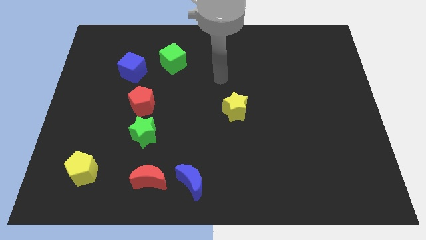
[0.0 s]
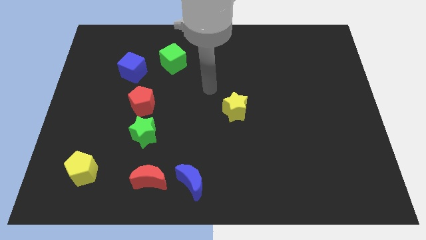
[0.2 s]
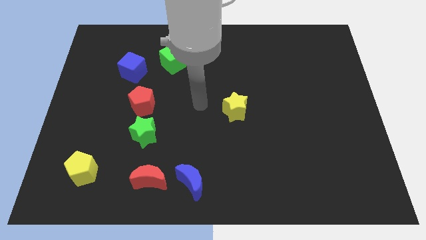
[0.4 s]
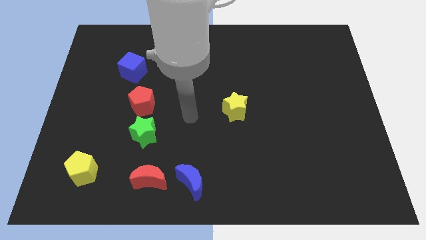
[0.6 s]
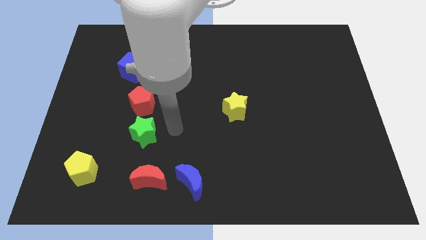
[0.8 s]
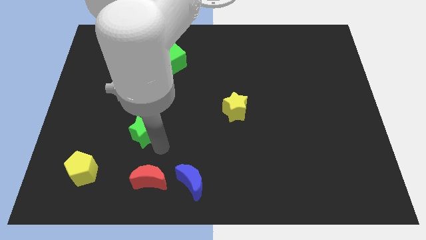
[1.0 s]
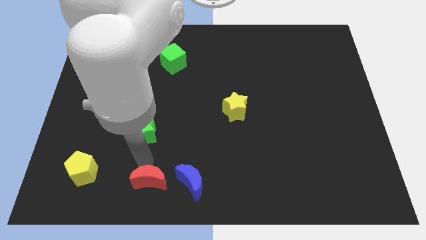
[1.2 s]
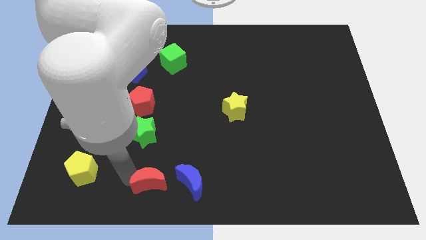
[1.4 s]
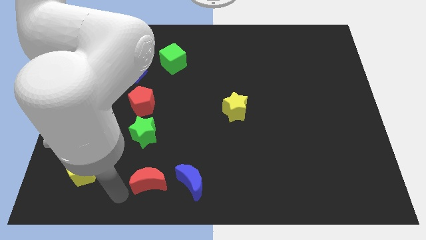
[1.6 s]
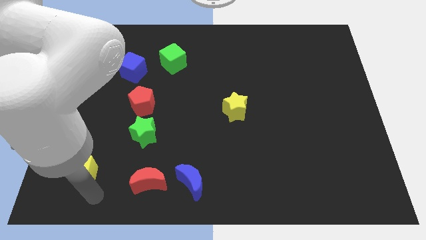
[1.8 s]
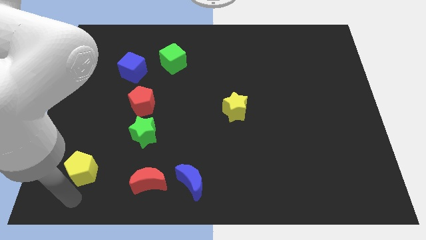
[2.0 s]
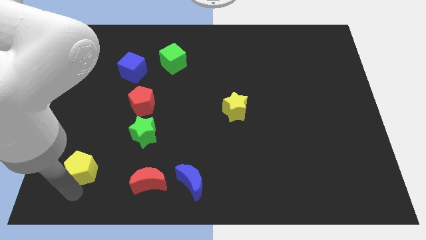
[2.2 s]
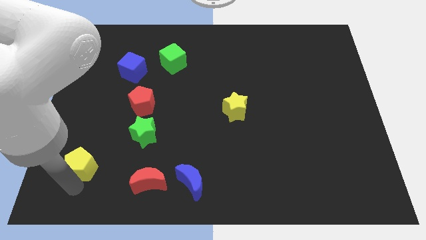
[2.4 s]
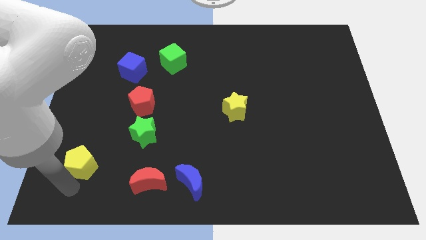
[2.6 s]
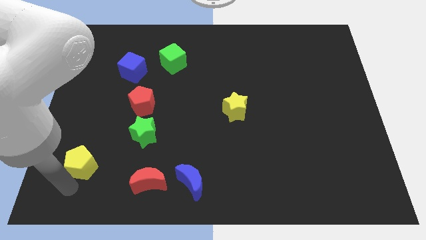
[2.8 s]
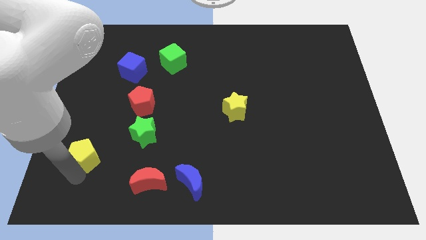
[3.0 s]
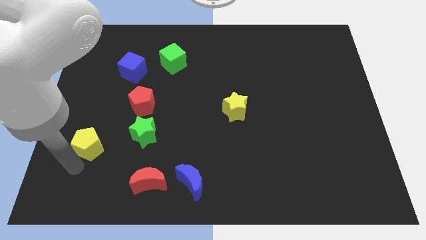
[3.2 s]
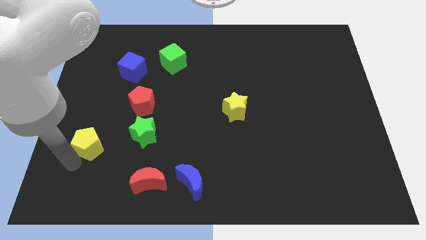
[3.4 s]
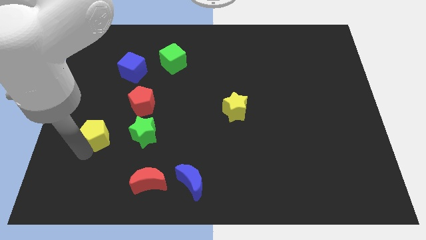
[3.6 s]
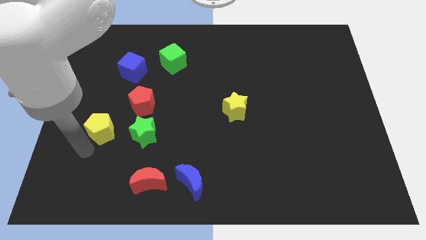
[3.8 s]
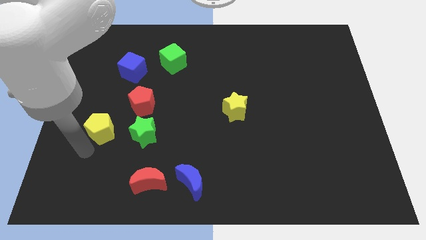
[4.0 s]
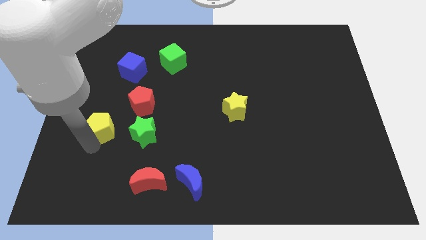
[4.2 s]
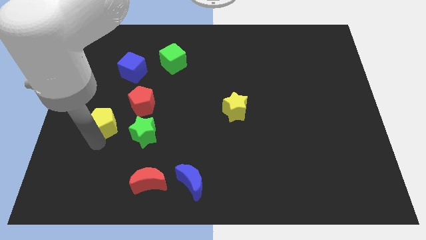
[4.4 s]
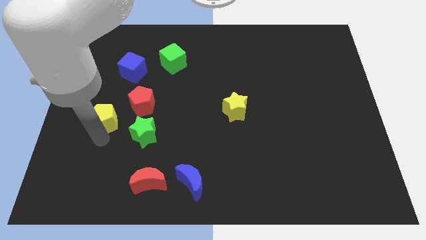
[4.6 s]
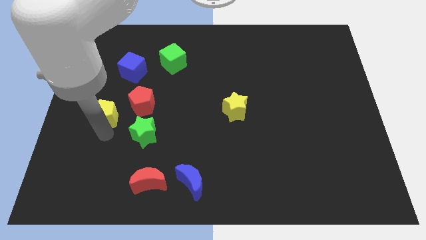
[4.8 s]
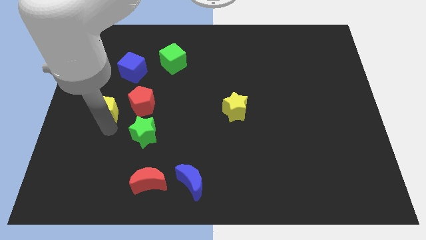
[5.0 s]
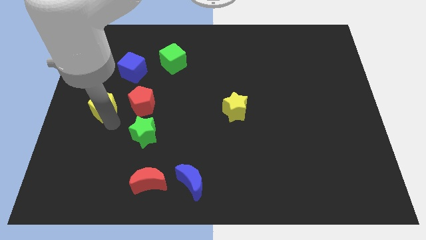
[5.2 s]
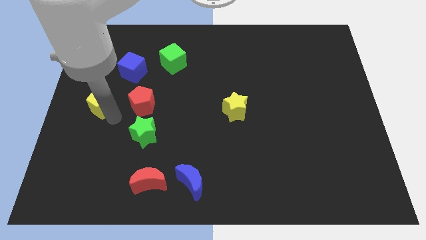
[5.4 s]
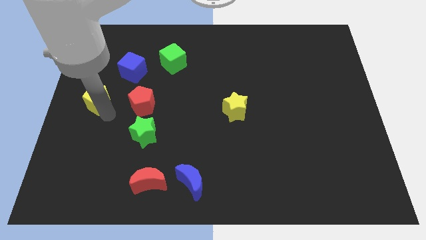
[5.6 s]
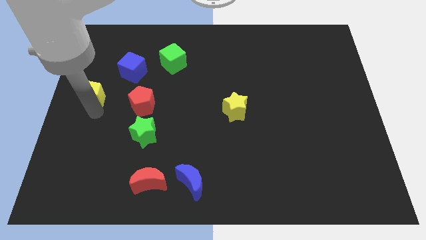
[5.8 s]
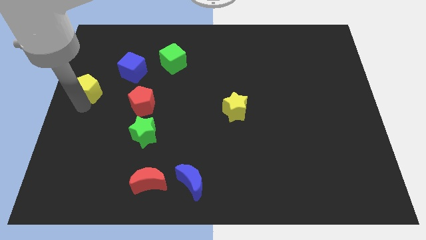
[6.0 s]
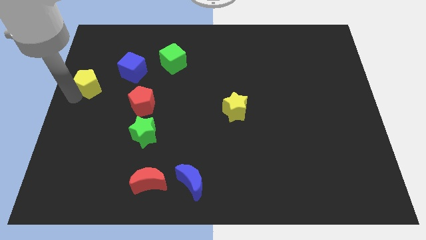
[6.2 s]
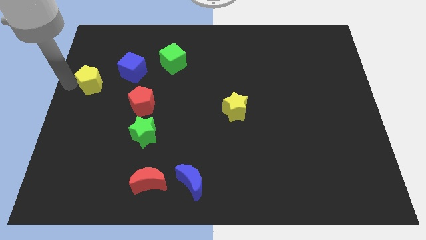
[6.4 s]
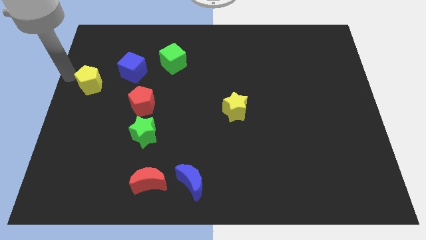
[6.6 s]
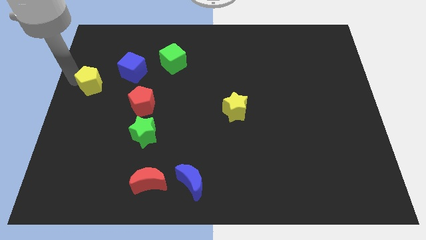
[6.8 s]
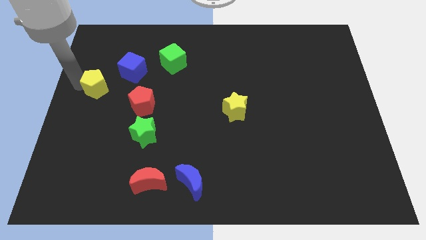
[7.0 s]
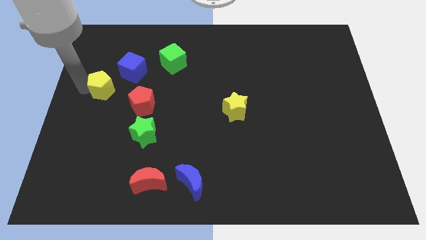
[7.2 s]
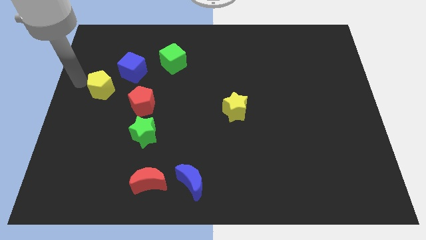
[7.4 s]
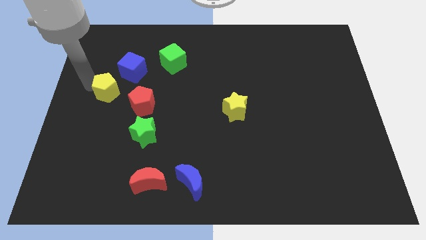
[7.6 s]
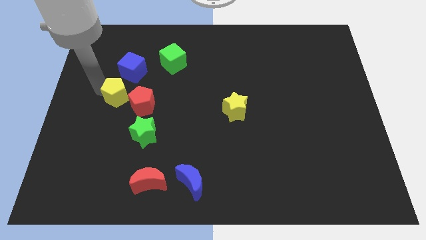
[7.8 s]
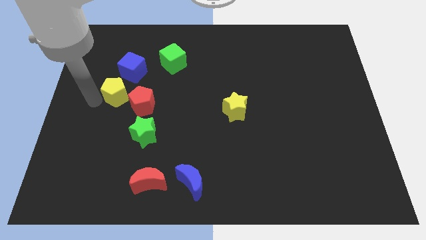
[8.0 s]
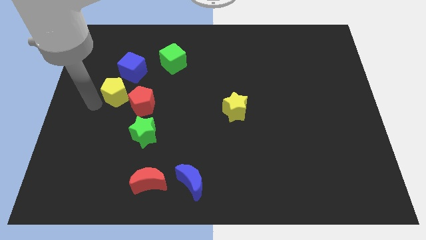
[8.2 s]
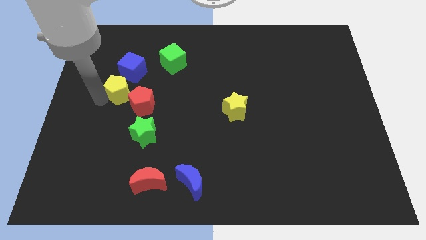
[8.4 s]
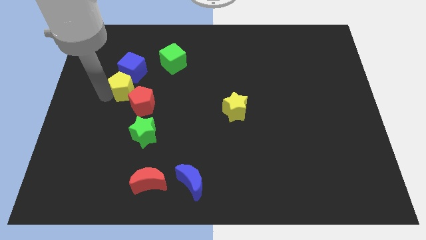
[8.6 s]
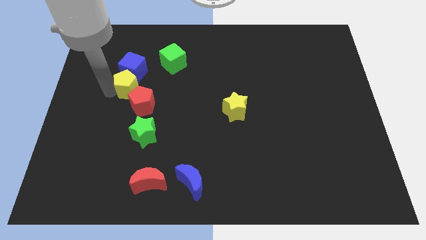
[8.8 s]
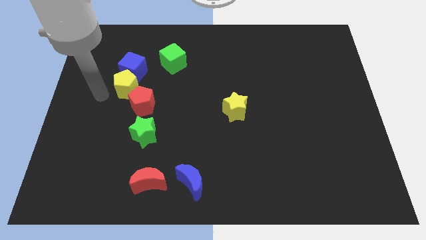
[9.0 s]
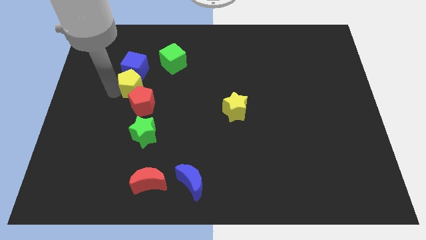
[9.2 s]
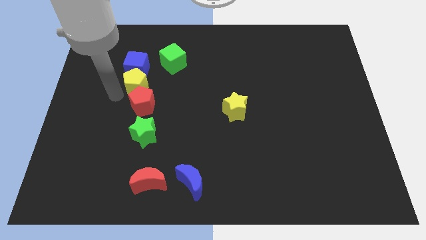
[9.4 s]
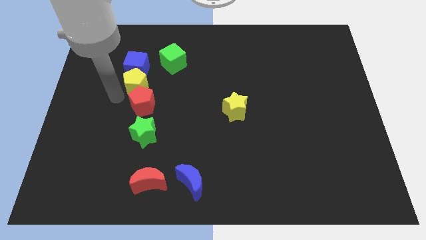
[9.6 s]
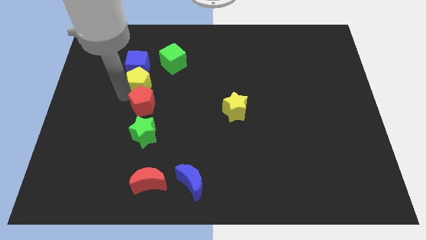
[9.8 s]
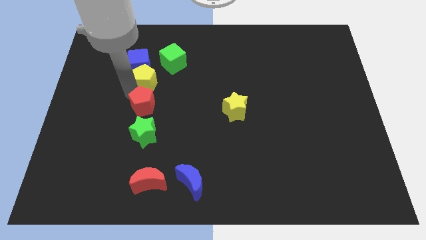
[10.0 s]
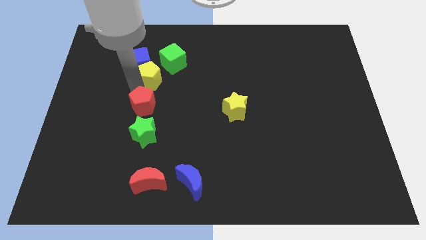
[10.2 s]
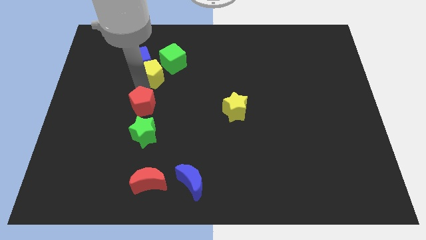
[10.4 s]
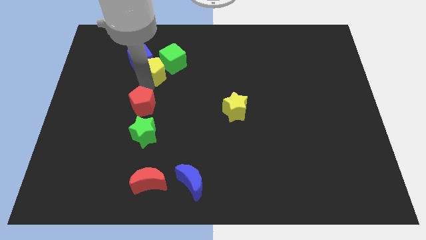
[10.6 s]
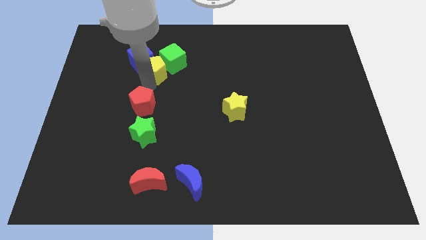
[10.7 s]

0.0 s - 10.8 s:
push the yellow pentagon next to the green cube

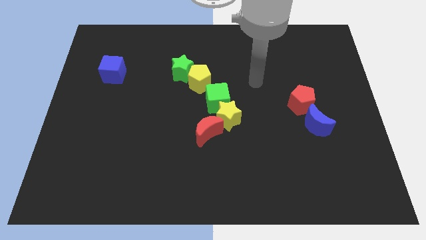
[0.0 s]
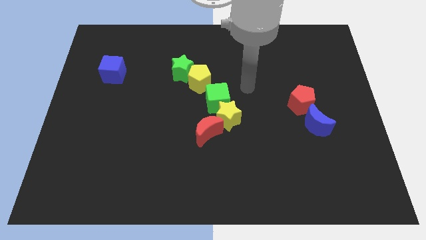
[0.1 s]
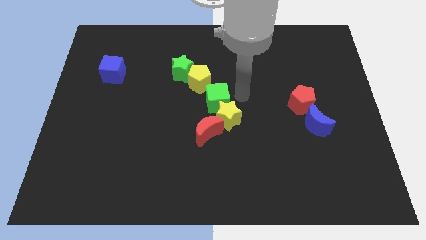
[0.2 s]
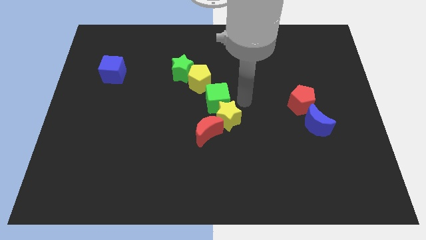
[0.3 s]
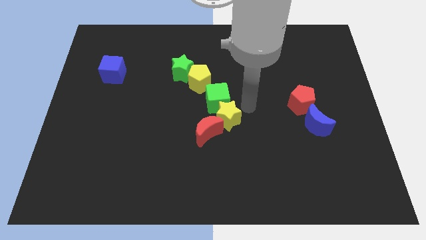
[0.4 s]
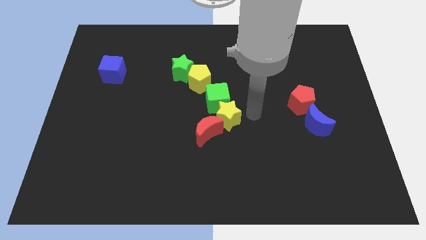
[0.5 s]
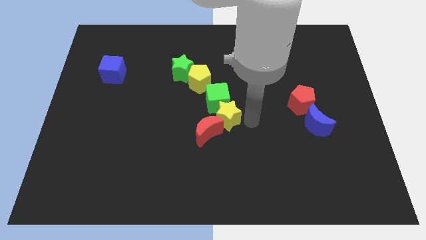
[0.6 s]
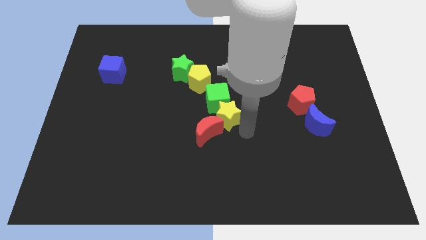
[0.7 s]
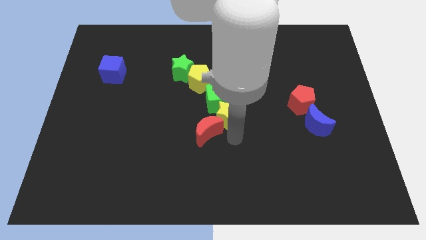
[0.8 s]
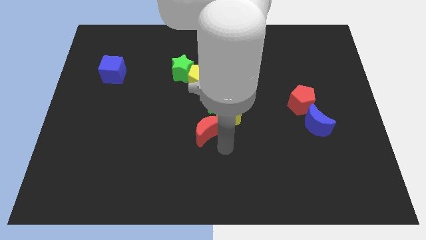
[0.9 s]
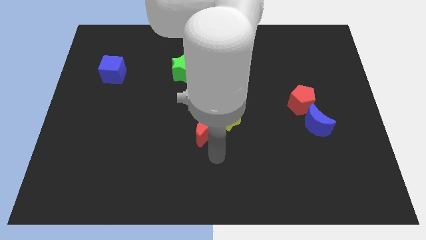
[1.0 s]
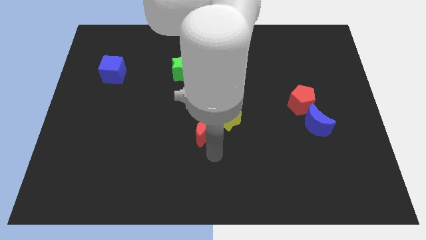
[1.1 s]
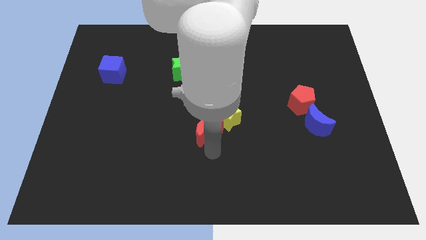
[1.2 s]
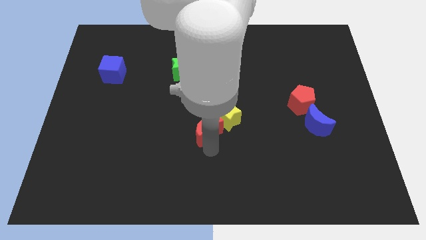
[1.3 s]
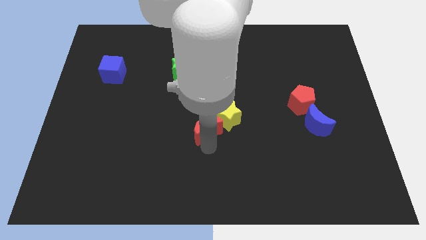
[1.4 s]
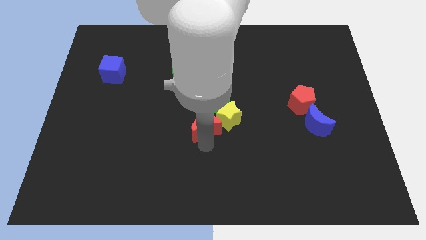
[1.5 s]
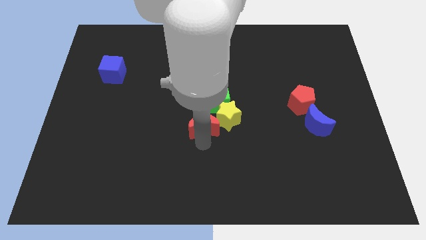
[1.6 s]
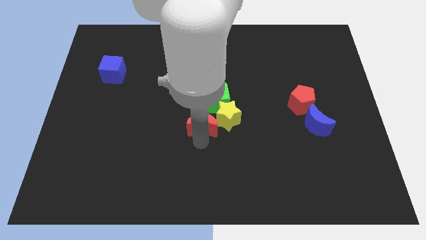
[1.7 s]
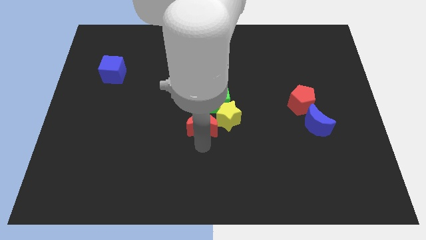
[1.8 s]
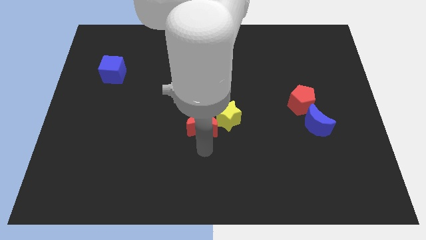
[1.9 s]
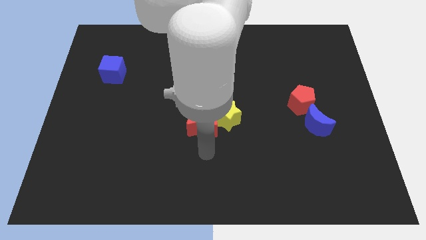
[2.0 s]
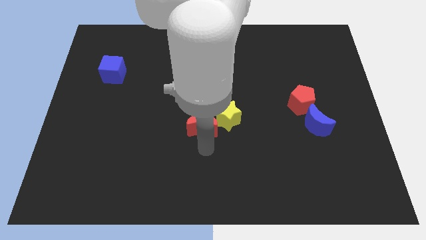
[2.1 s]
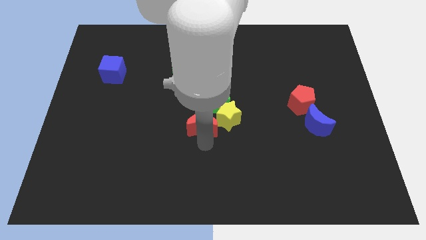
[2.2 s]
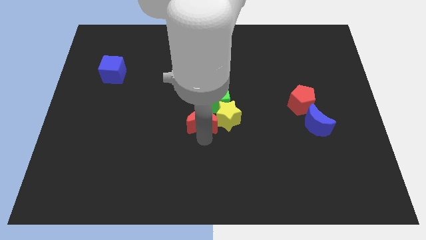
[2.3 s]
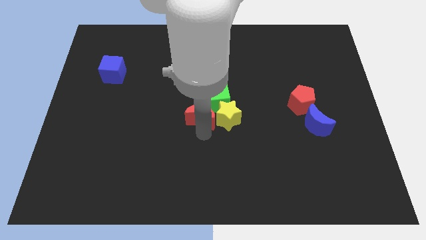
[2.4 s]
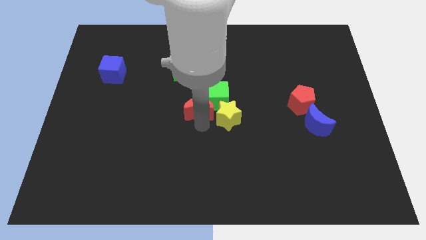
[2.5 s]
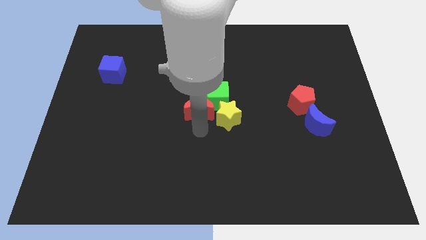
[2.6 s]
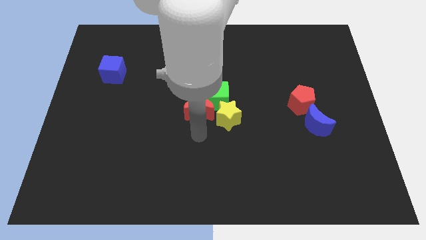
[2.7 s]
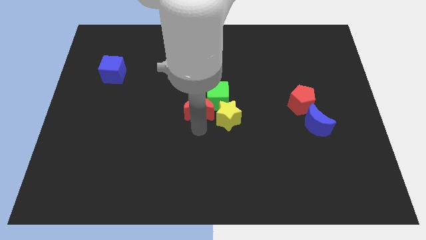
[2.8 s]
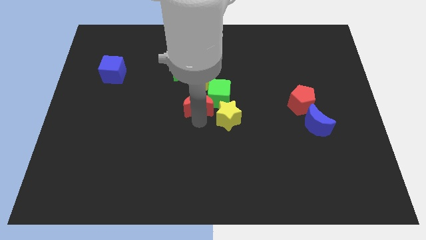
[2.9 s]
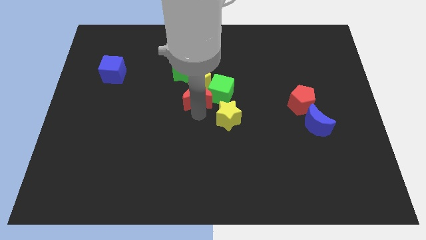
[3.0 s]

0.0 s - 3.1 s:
slide the red moon next to the yellow pentagon
